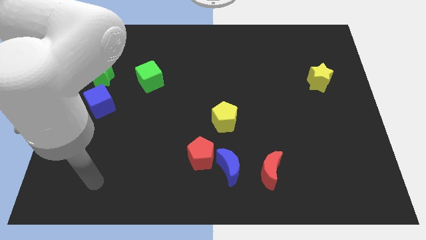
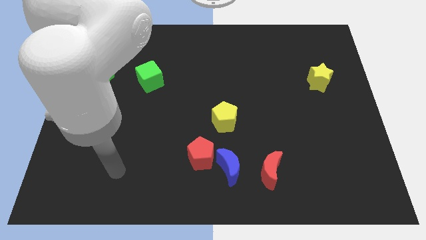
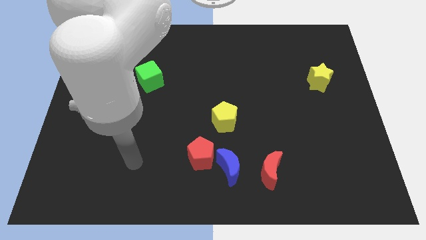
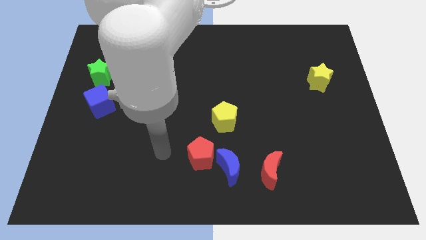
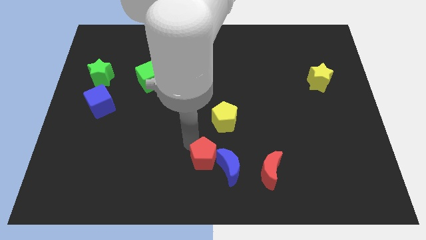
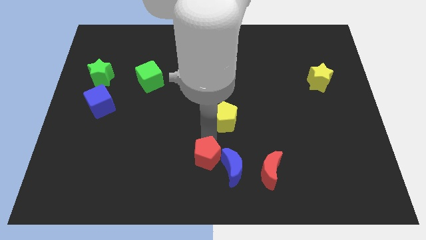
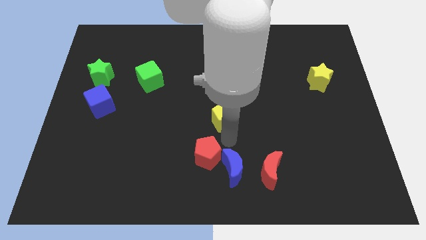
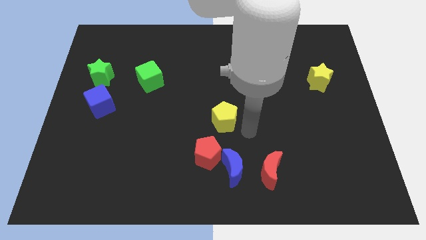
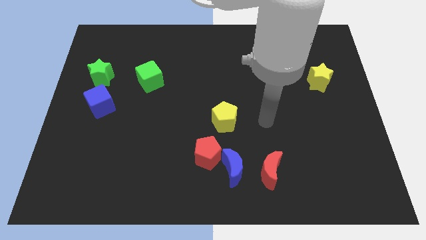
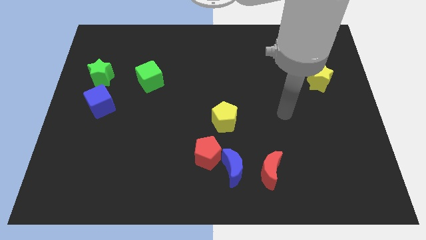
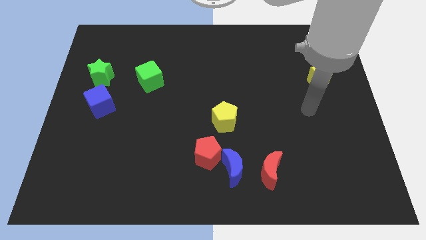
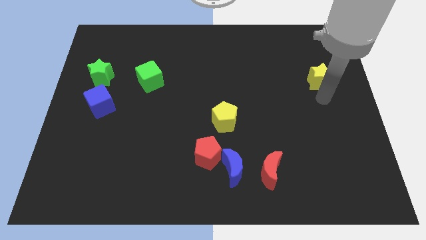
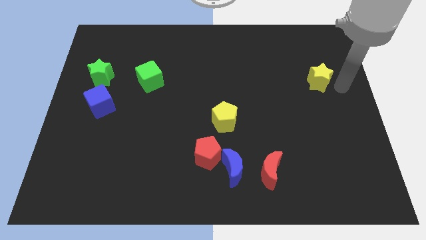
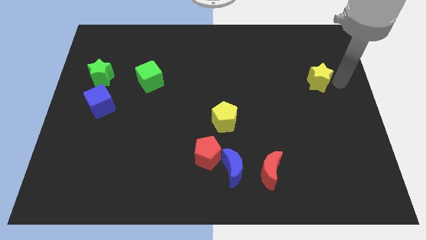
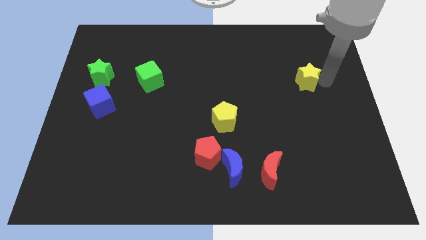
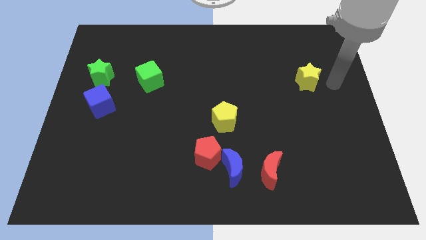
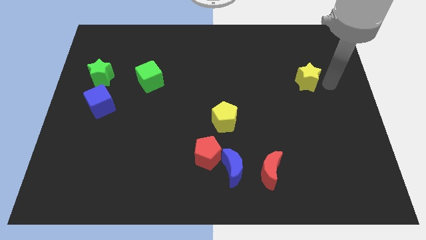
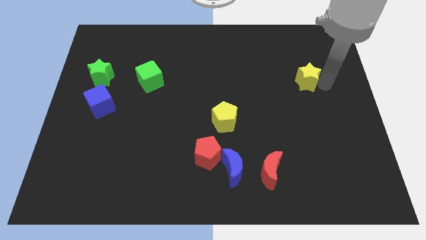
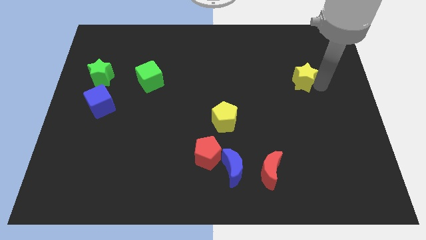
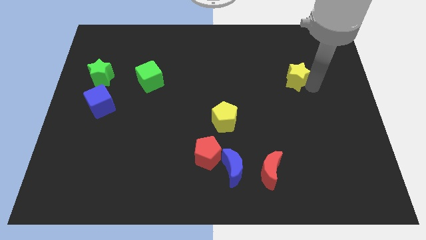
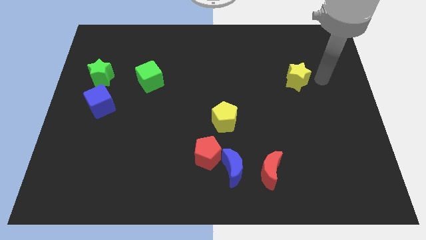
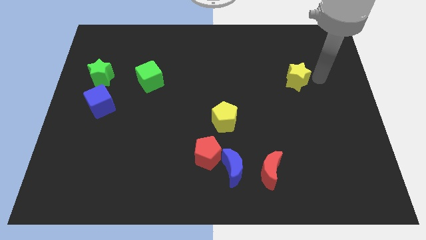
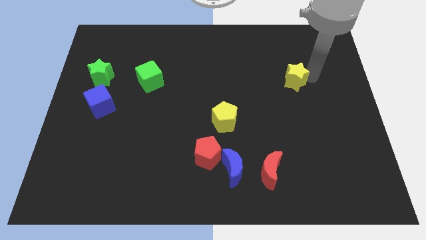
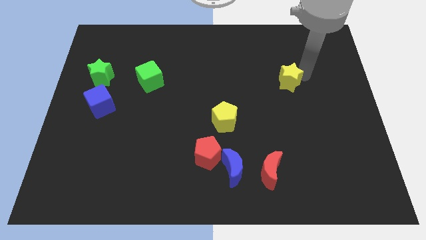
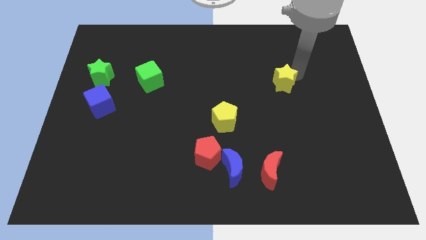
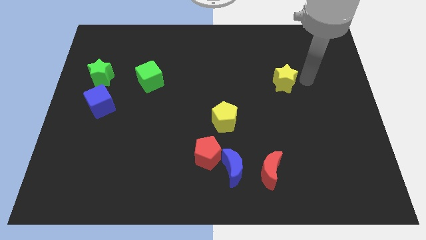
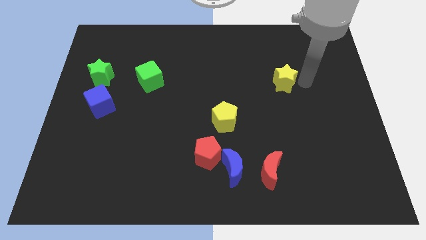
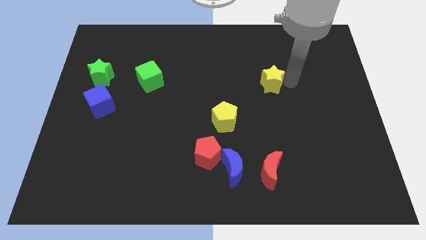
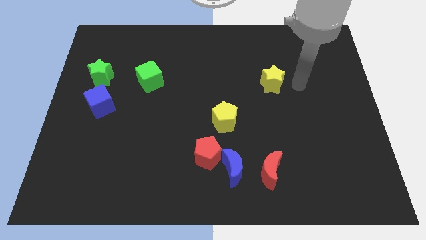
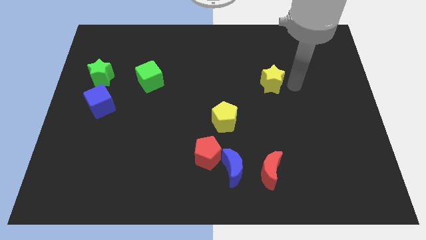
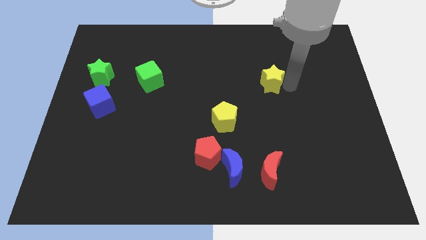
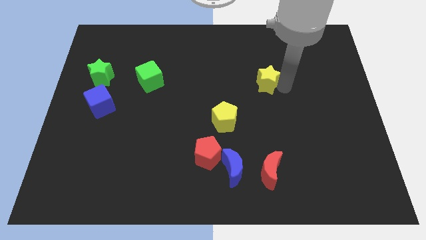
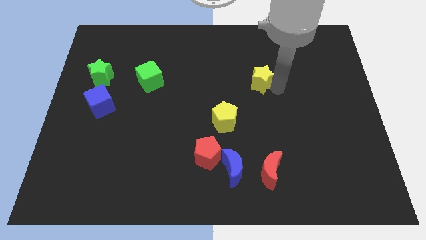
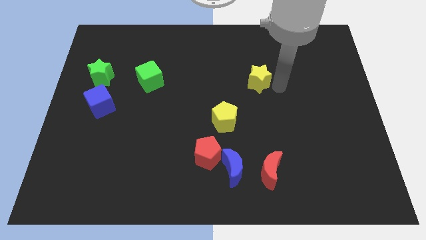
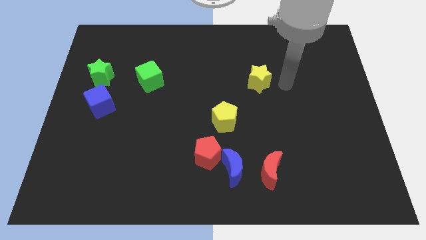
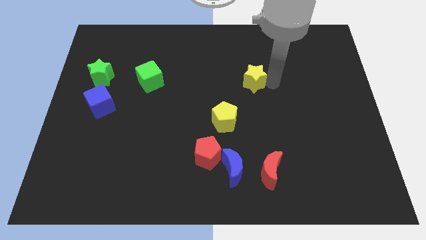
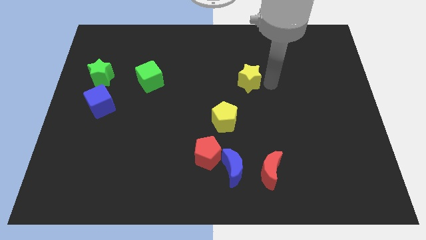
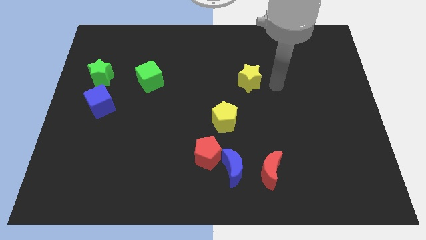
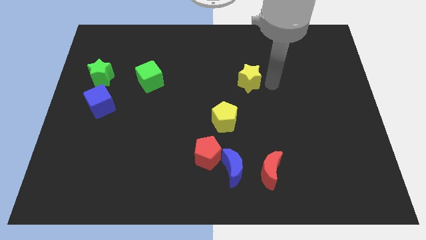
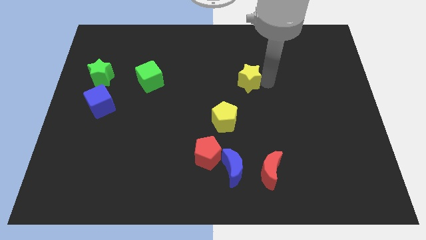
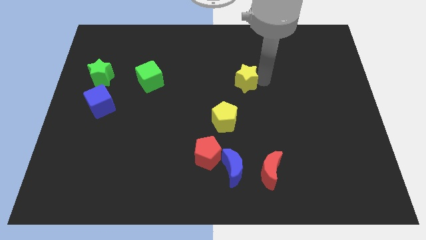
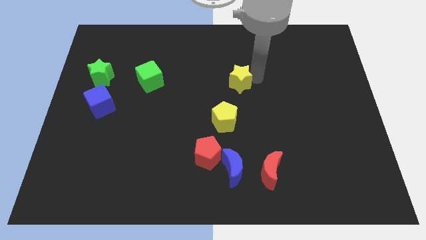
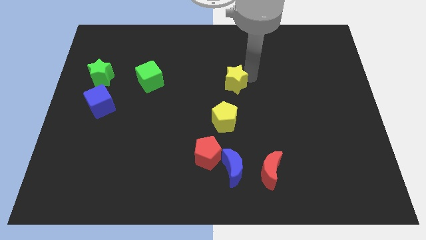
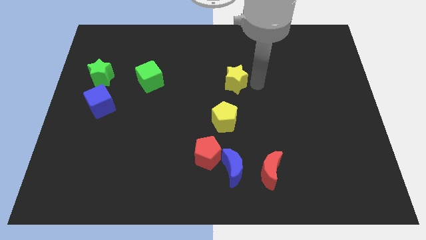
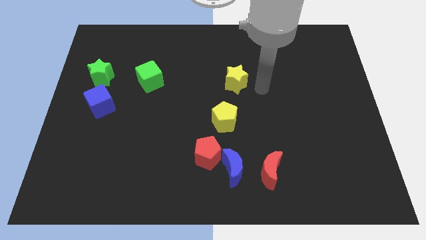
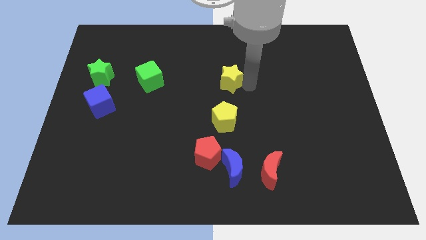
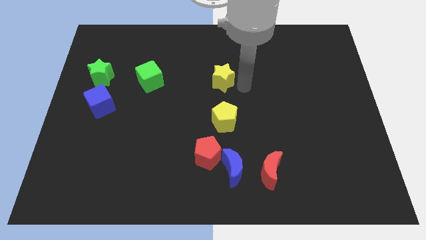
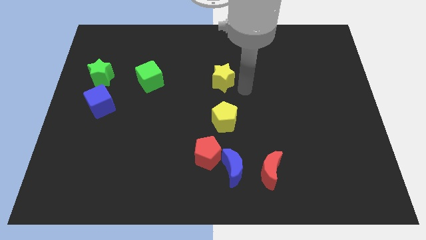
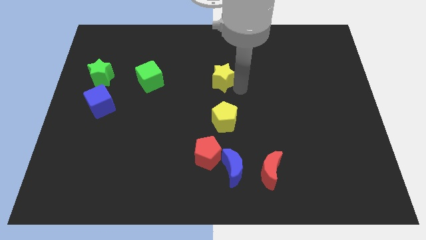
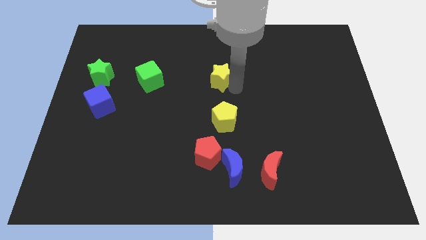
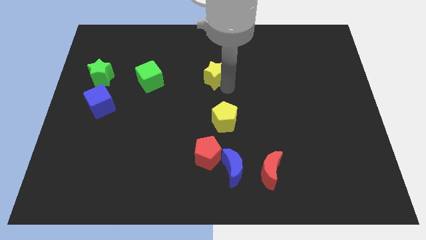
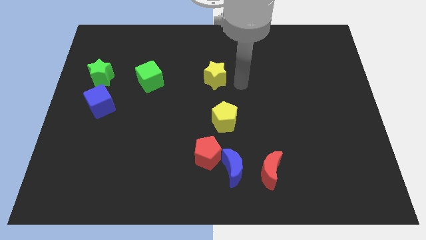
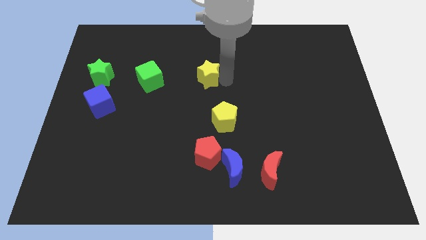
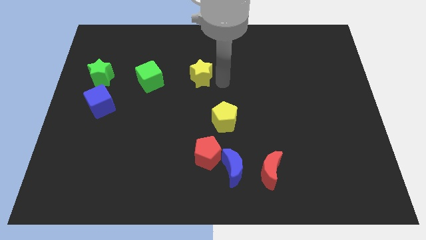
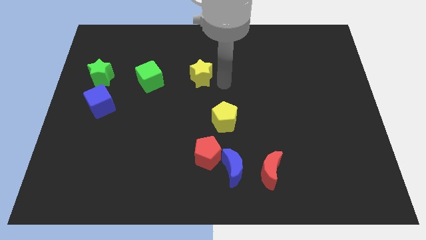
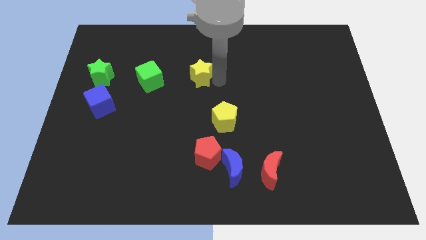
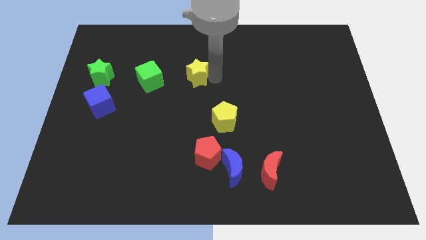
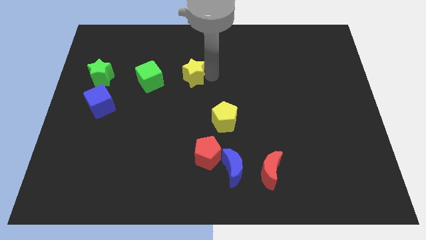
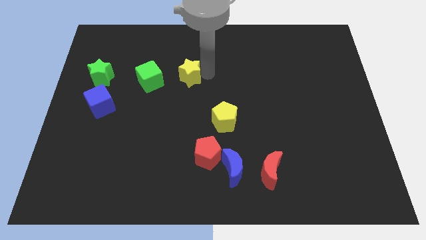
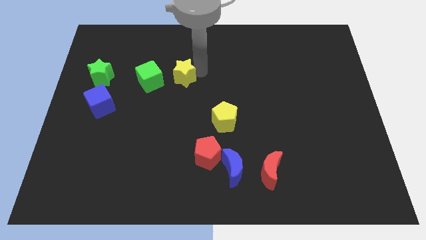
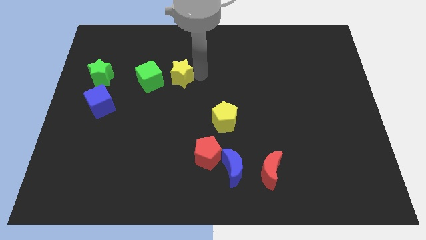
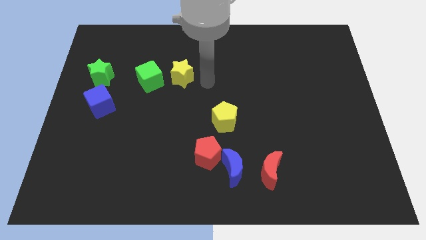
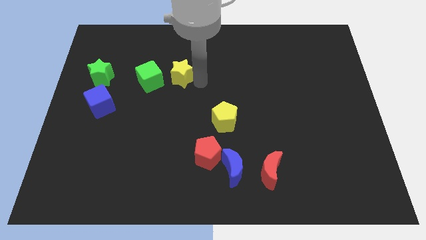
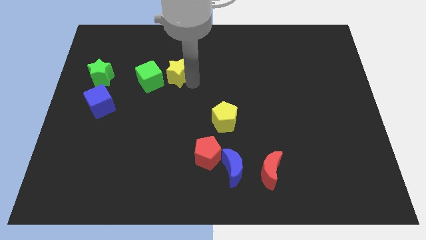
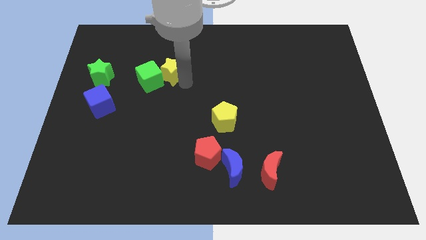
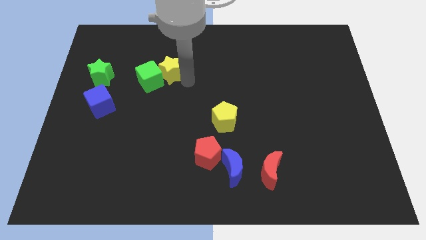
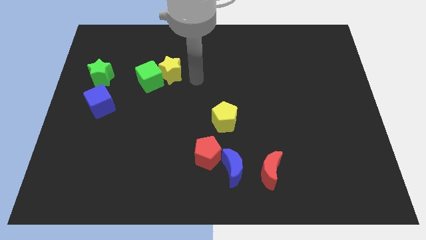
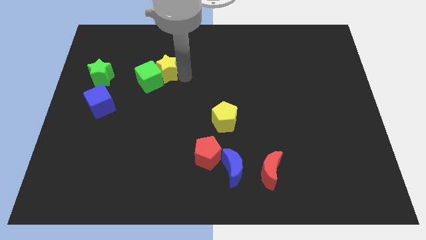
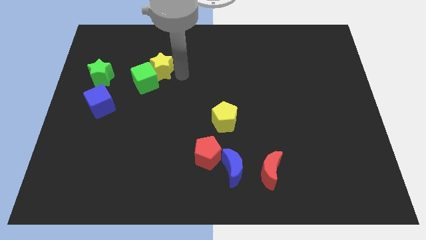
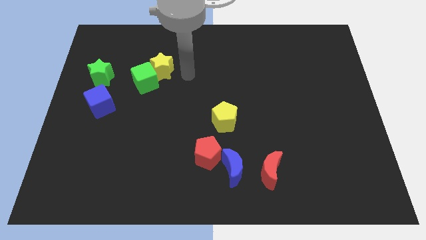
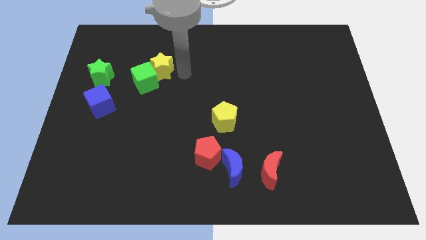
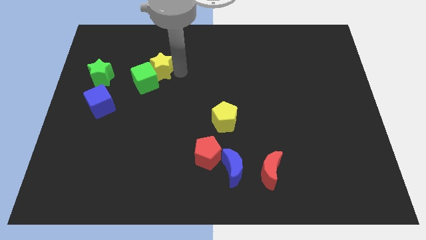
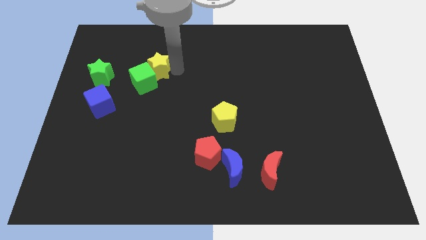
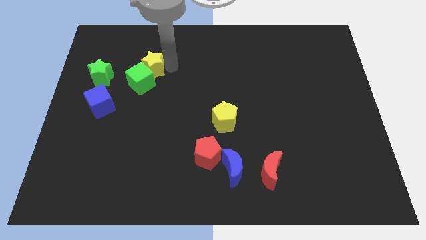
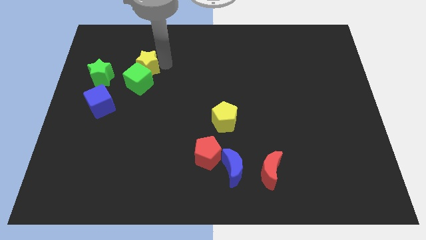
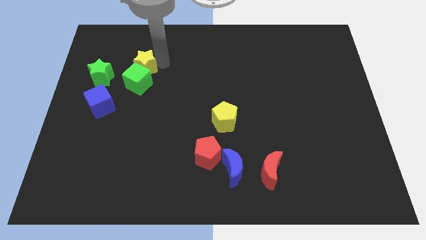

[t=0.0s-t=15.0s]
put the yellow star to the top left side of the green cube
